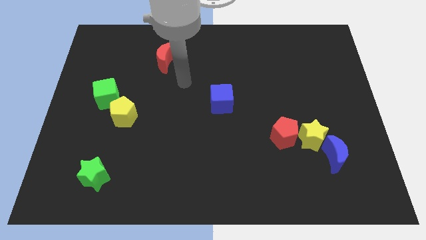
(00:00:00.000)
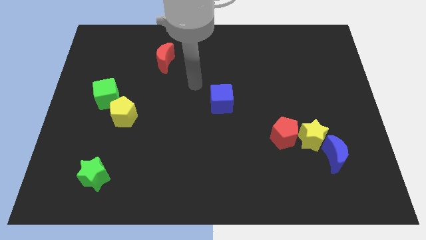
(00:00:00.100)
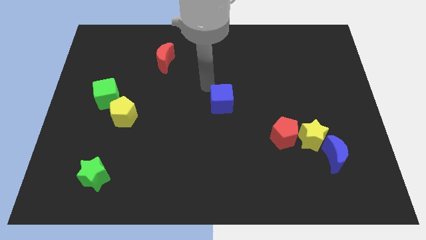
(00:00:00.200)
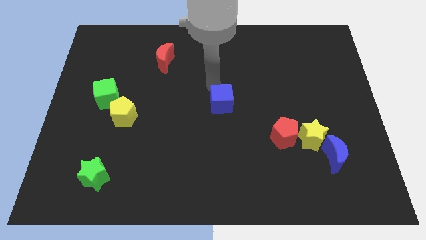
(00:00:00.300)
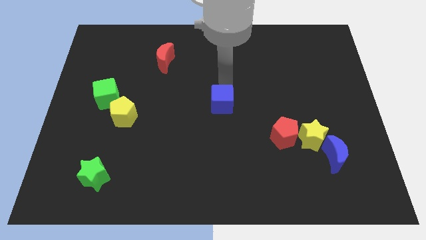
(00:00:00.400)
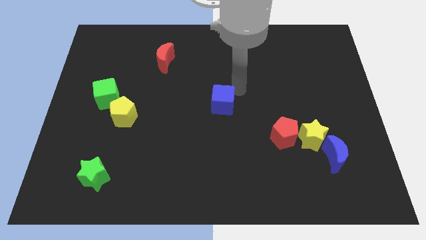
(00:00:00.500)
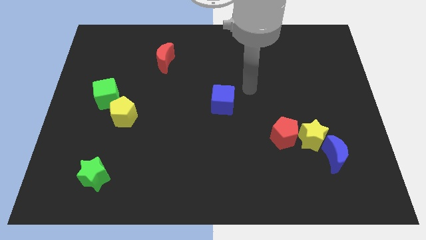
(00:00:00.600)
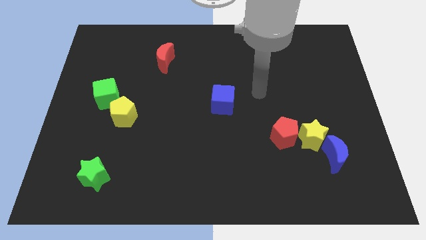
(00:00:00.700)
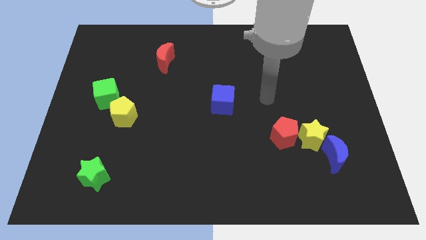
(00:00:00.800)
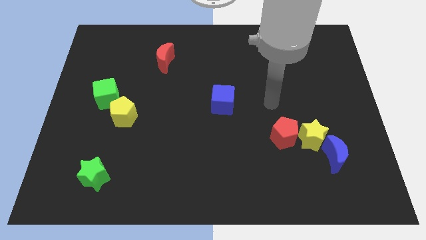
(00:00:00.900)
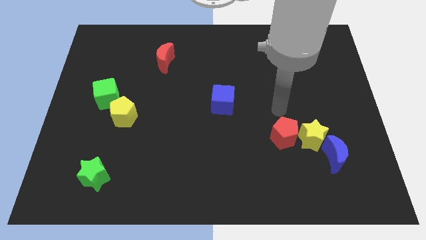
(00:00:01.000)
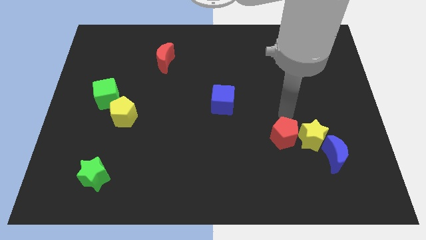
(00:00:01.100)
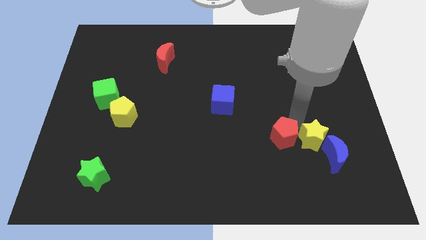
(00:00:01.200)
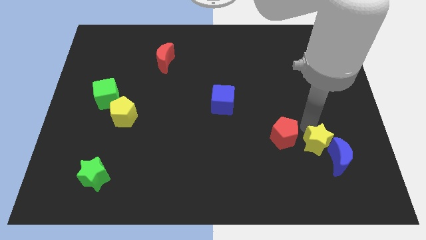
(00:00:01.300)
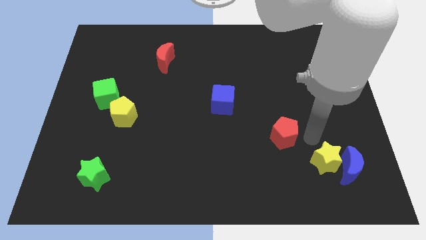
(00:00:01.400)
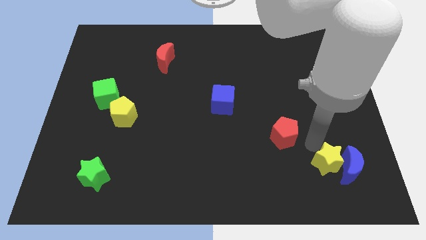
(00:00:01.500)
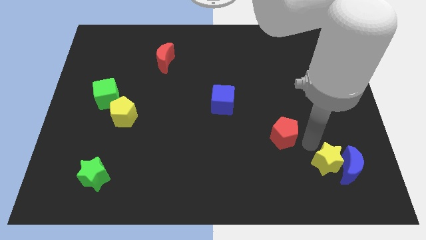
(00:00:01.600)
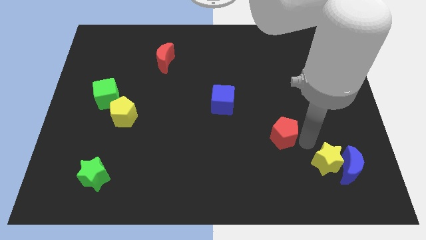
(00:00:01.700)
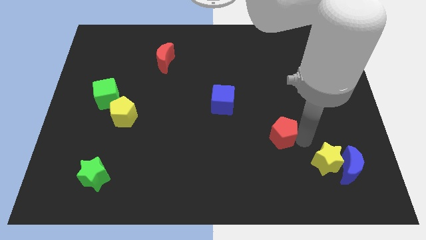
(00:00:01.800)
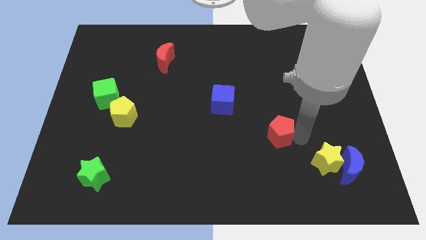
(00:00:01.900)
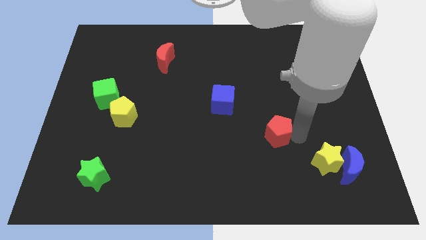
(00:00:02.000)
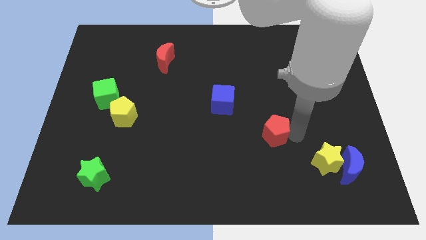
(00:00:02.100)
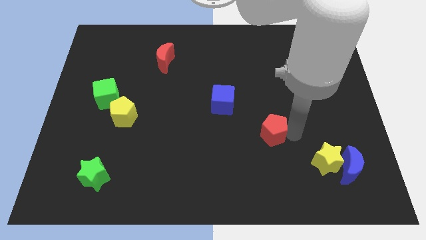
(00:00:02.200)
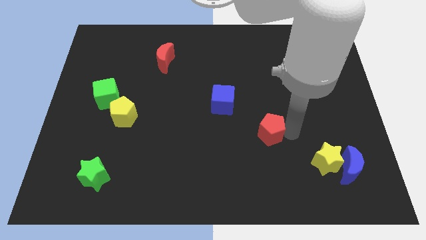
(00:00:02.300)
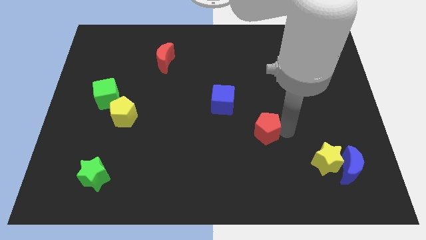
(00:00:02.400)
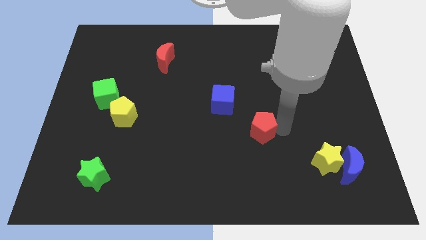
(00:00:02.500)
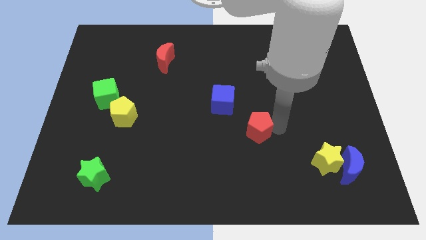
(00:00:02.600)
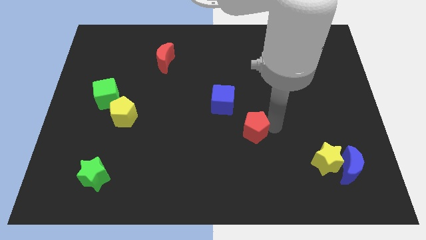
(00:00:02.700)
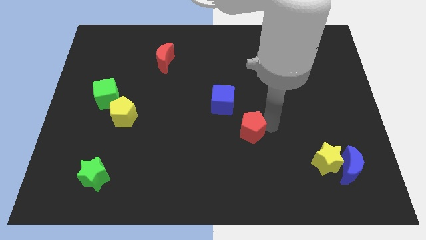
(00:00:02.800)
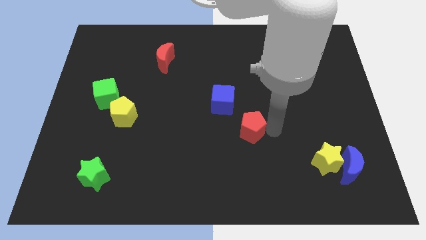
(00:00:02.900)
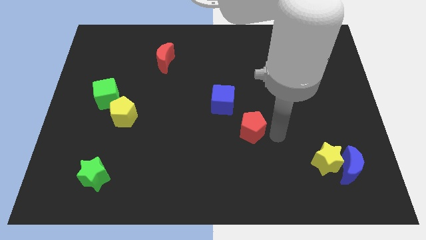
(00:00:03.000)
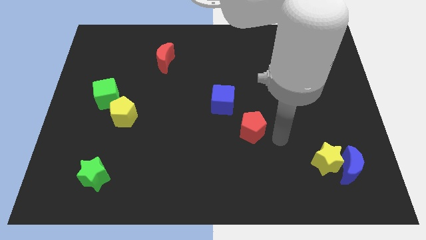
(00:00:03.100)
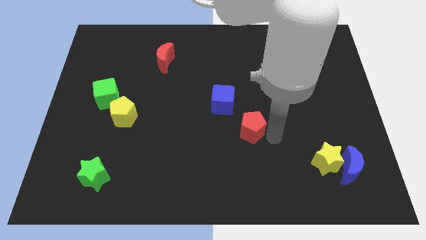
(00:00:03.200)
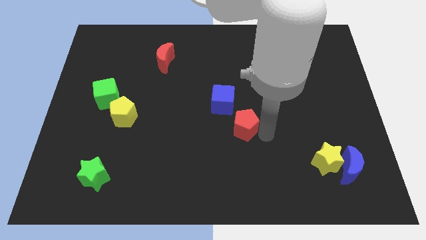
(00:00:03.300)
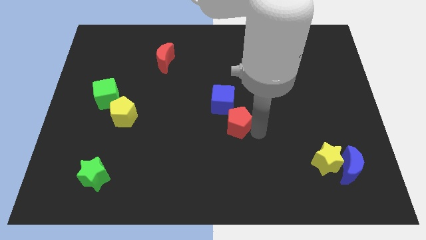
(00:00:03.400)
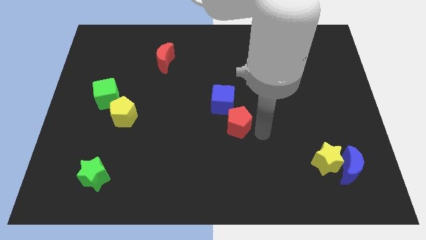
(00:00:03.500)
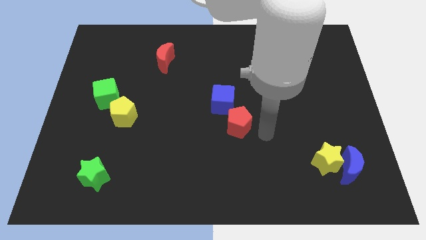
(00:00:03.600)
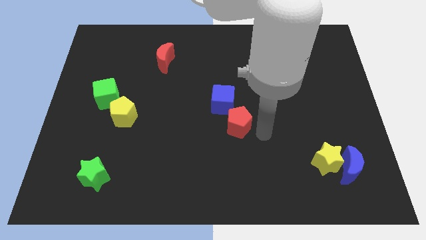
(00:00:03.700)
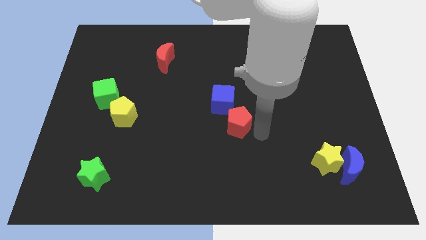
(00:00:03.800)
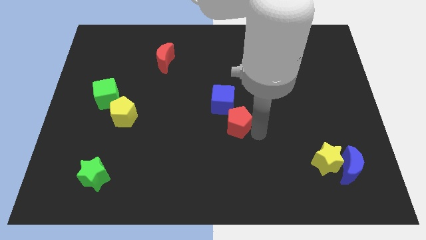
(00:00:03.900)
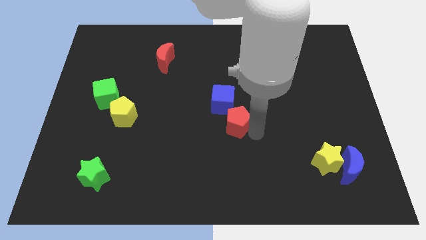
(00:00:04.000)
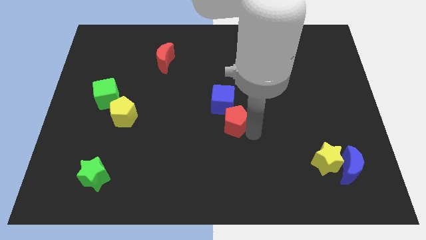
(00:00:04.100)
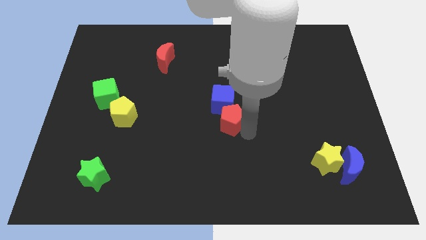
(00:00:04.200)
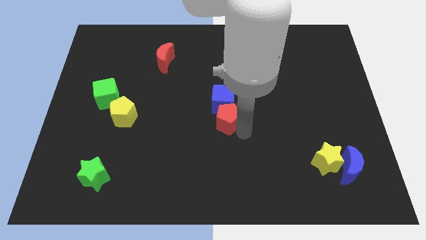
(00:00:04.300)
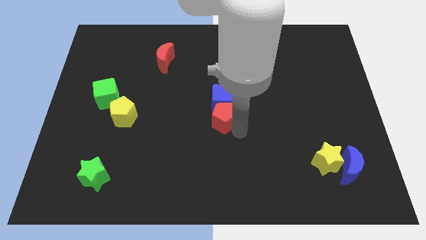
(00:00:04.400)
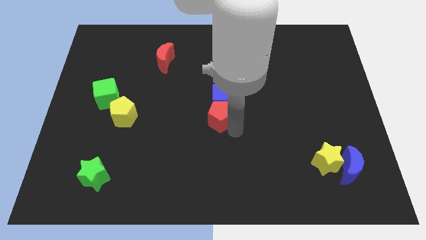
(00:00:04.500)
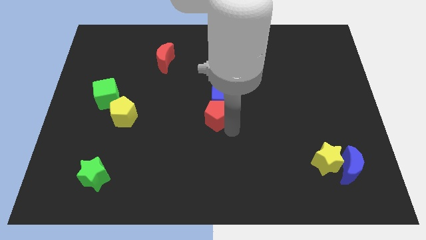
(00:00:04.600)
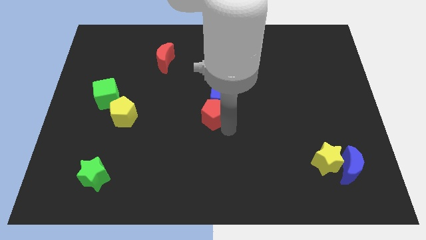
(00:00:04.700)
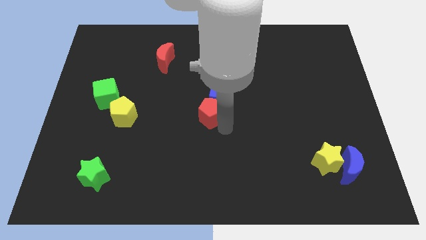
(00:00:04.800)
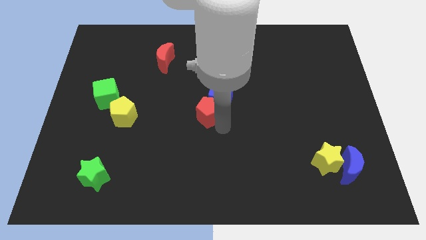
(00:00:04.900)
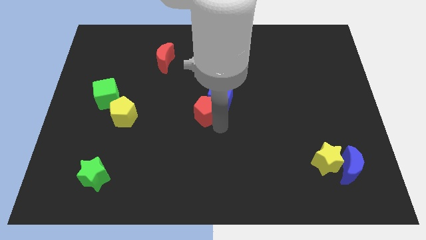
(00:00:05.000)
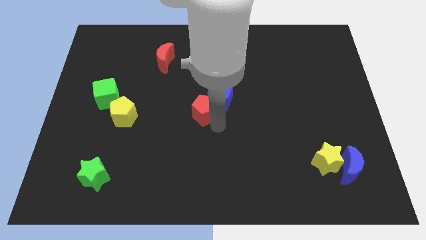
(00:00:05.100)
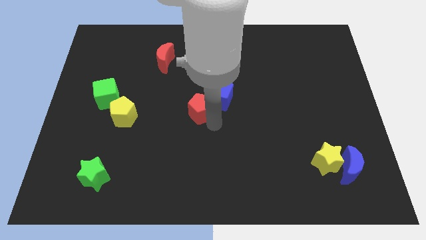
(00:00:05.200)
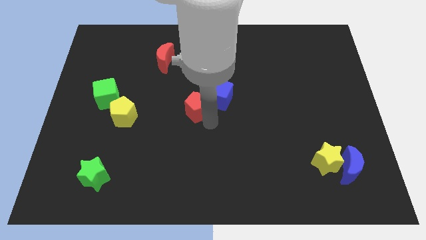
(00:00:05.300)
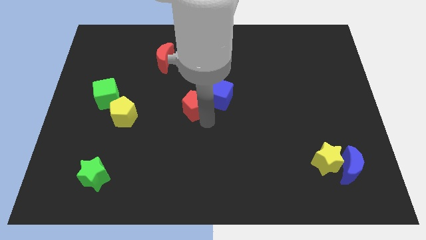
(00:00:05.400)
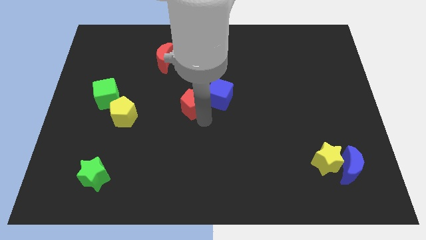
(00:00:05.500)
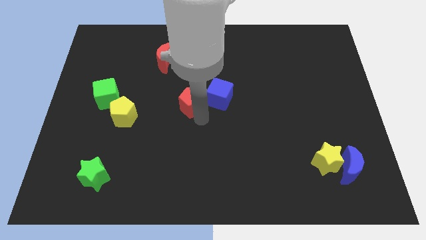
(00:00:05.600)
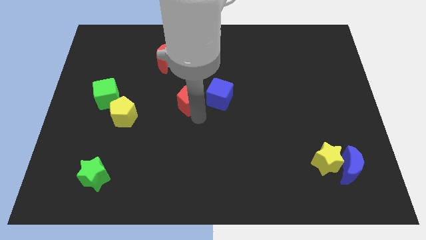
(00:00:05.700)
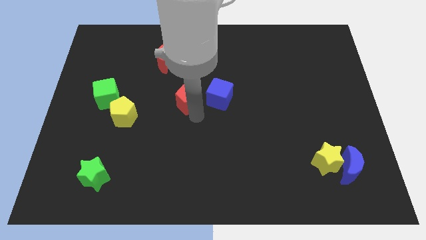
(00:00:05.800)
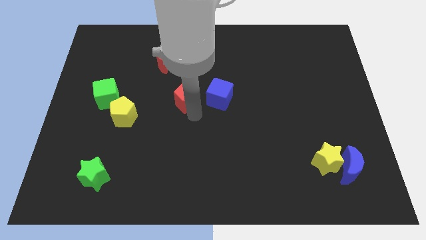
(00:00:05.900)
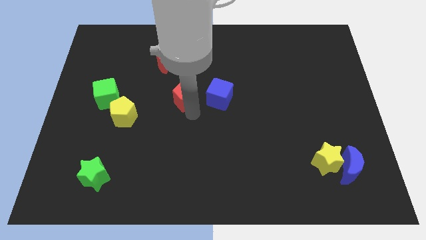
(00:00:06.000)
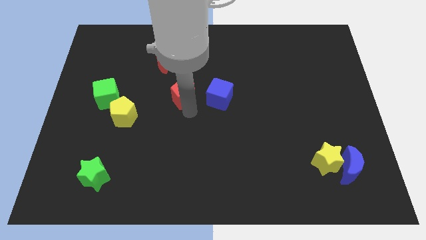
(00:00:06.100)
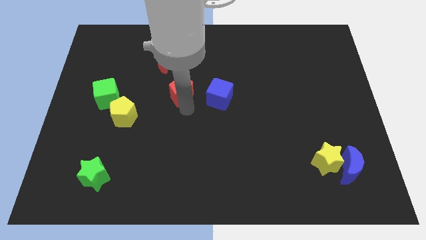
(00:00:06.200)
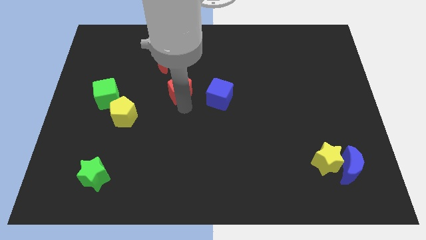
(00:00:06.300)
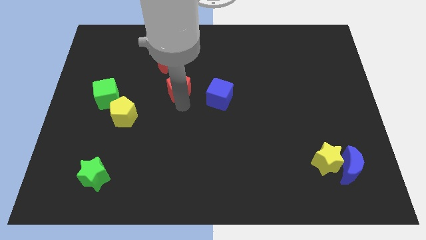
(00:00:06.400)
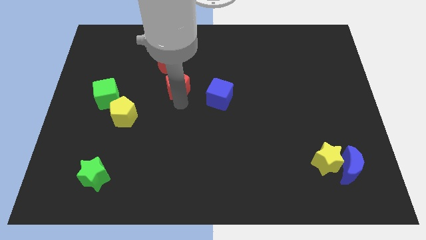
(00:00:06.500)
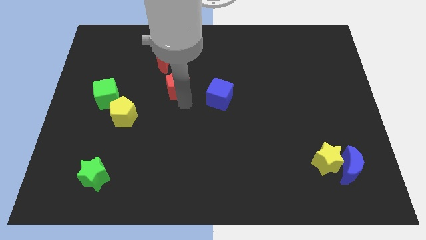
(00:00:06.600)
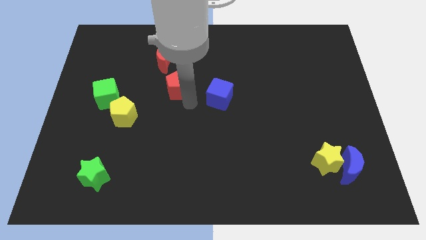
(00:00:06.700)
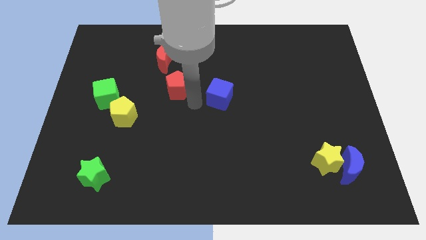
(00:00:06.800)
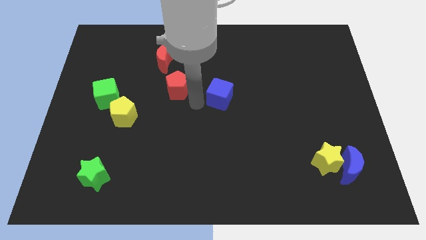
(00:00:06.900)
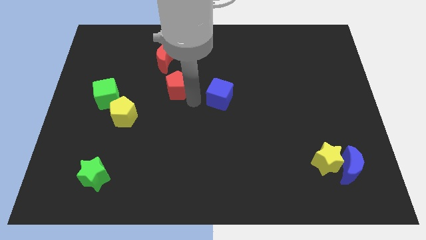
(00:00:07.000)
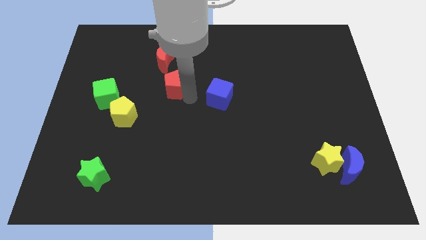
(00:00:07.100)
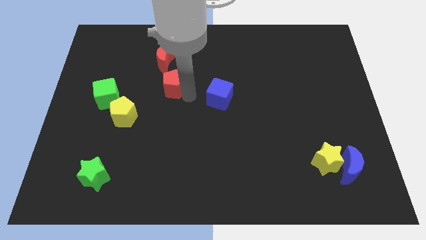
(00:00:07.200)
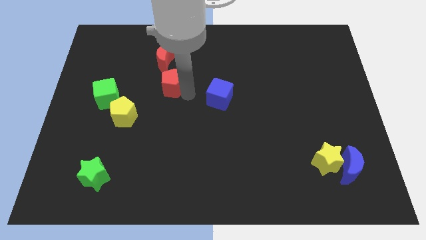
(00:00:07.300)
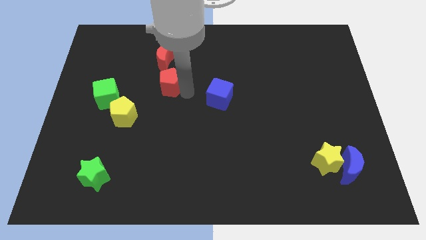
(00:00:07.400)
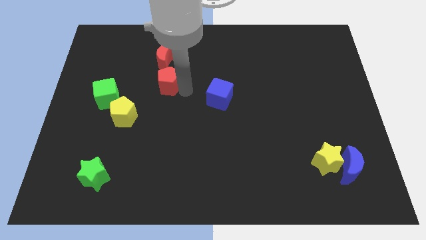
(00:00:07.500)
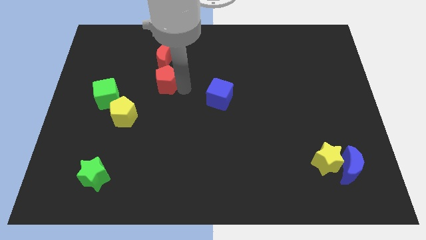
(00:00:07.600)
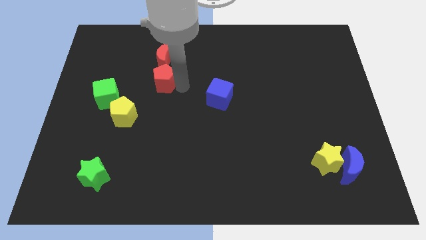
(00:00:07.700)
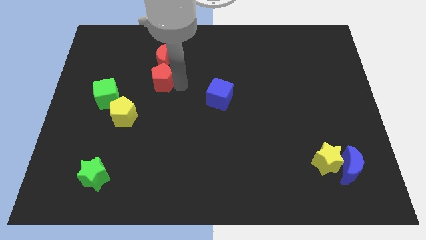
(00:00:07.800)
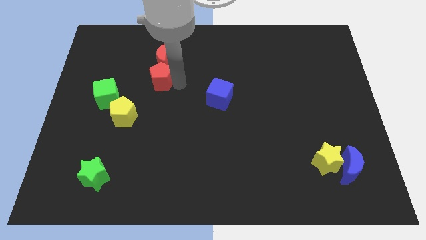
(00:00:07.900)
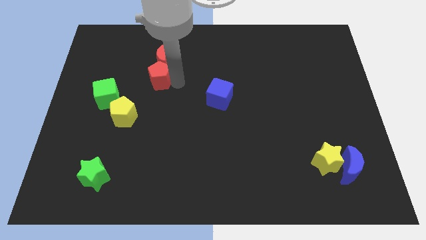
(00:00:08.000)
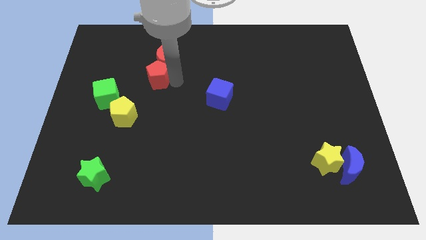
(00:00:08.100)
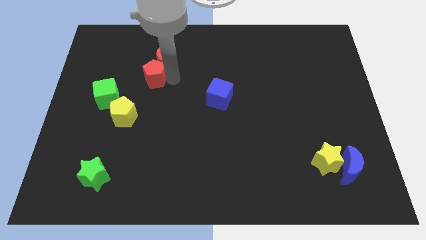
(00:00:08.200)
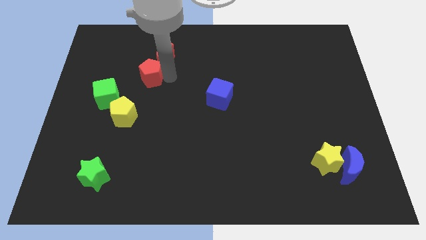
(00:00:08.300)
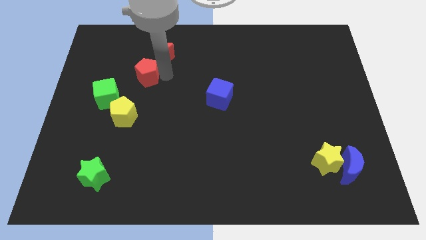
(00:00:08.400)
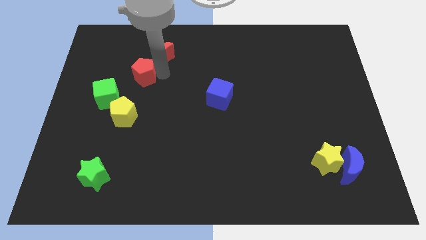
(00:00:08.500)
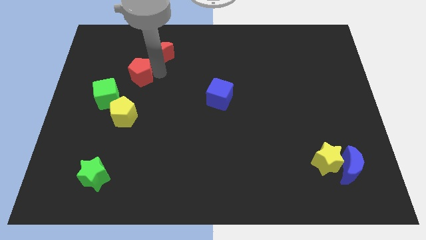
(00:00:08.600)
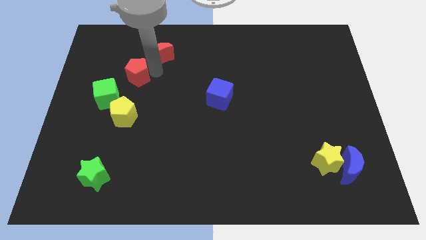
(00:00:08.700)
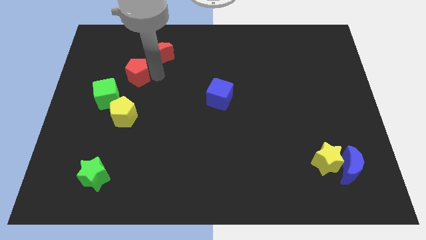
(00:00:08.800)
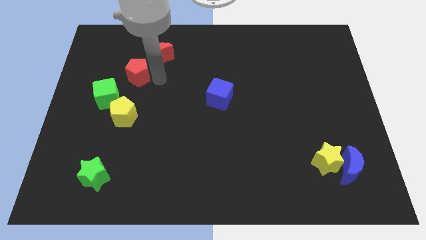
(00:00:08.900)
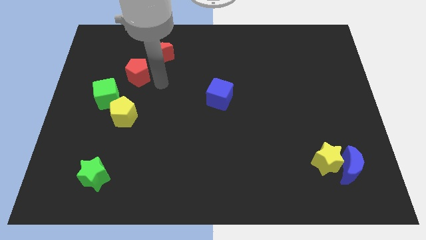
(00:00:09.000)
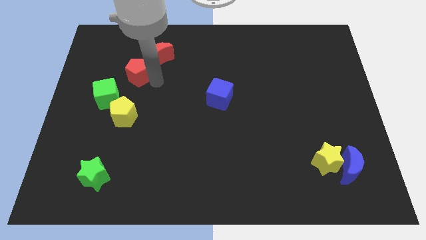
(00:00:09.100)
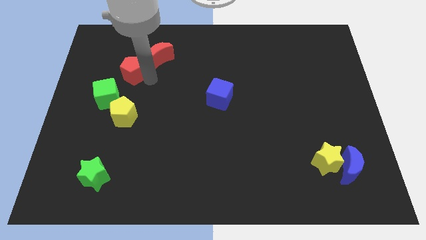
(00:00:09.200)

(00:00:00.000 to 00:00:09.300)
slide the red pentagon to the top of the green cube
